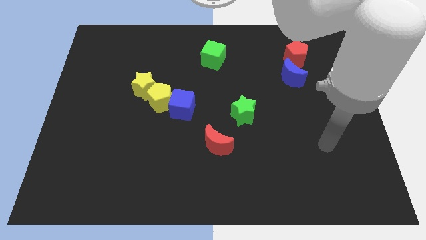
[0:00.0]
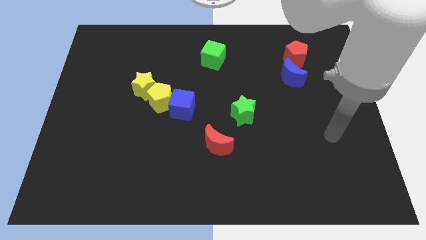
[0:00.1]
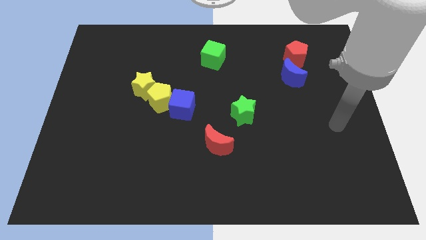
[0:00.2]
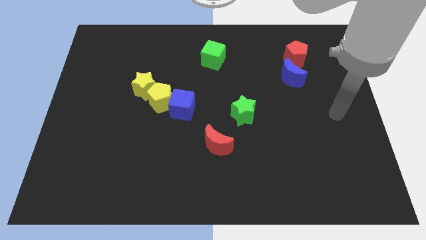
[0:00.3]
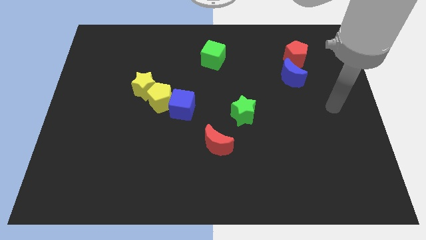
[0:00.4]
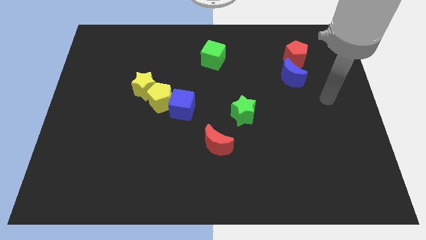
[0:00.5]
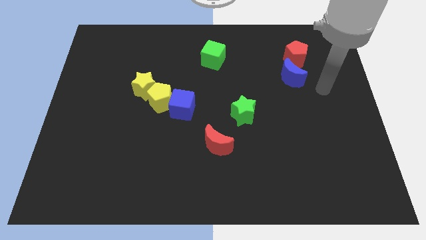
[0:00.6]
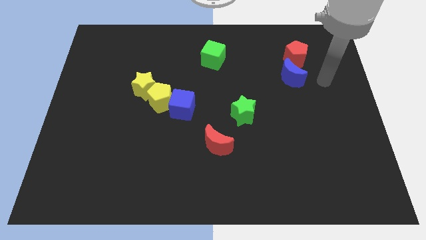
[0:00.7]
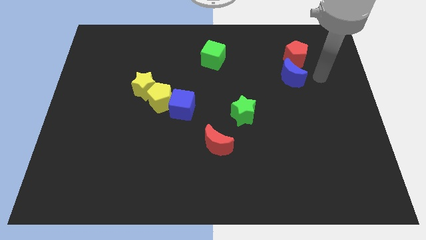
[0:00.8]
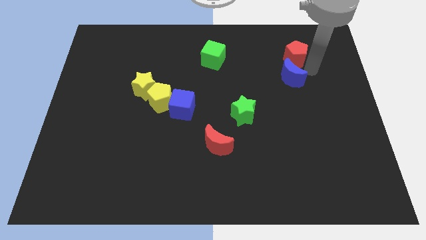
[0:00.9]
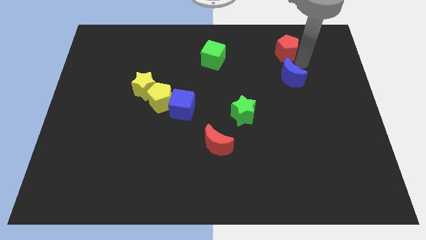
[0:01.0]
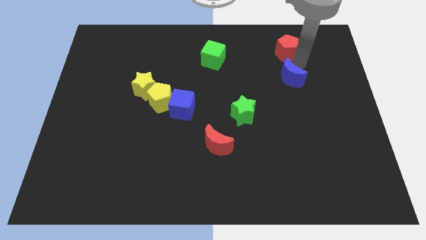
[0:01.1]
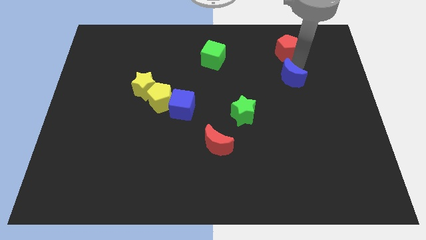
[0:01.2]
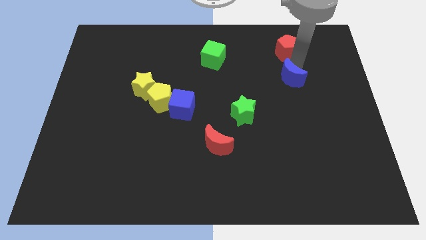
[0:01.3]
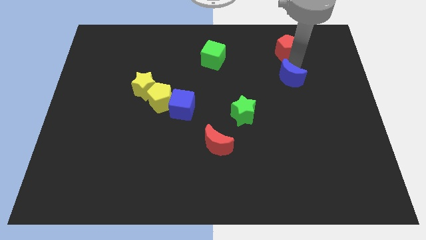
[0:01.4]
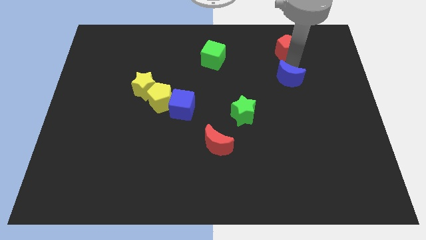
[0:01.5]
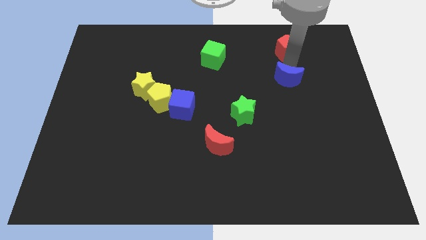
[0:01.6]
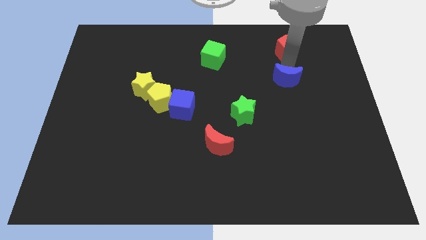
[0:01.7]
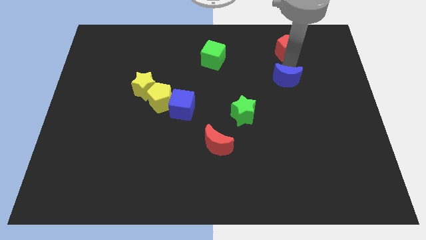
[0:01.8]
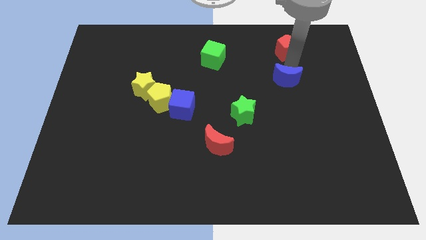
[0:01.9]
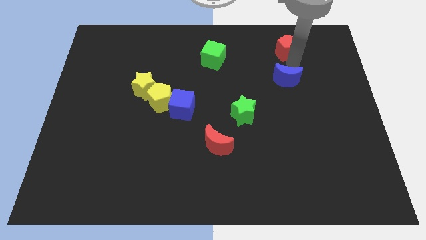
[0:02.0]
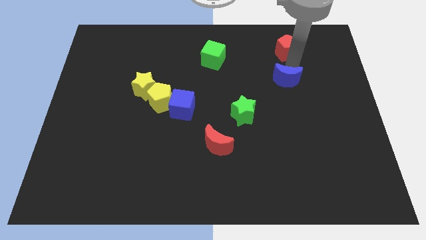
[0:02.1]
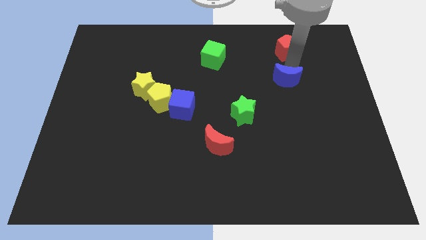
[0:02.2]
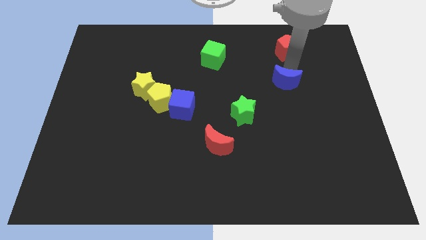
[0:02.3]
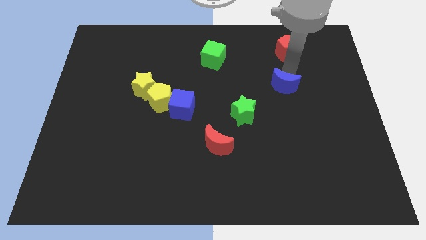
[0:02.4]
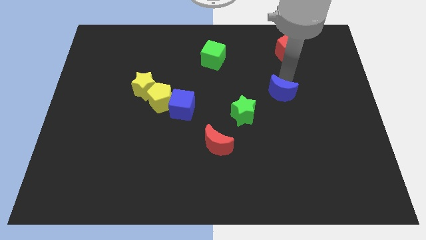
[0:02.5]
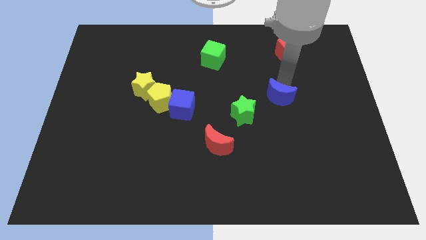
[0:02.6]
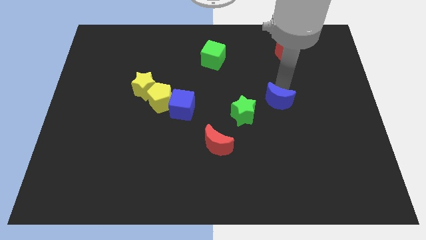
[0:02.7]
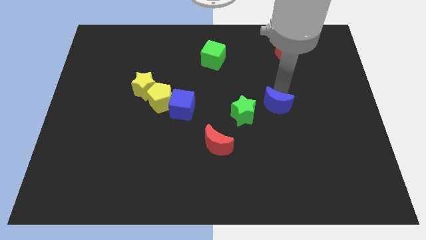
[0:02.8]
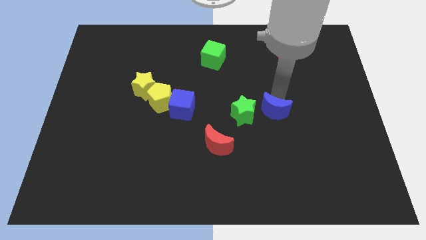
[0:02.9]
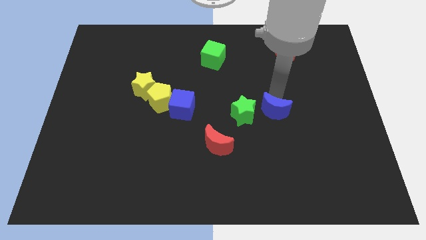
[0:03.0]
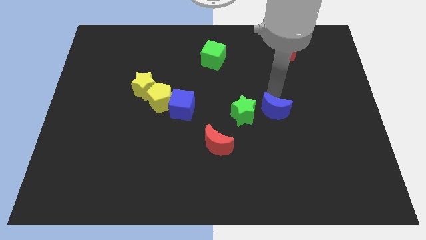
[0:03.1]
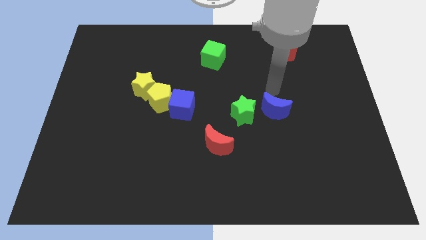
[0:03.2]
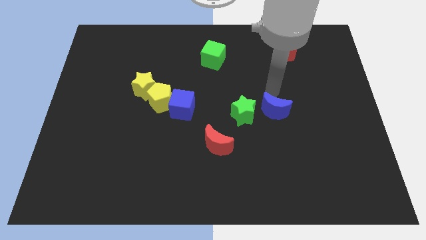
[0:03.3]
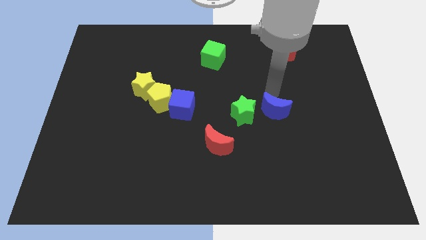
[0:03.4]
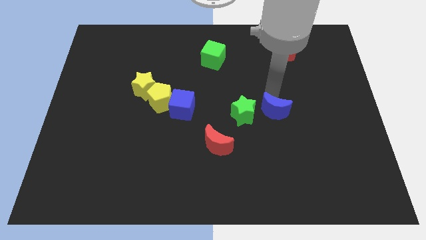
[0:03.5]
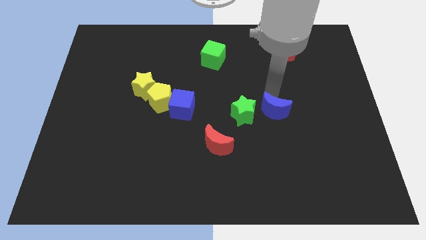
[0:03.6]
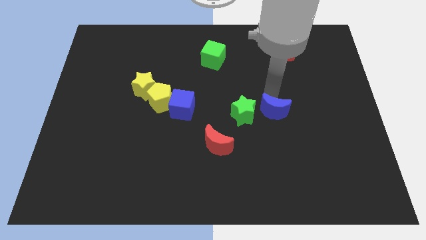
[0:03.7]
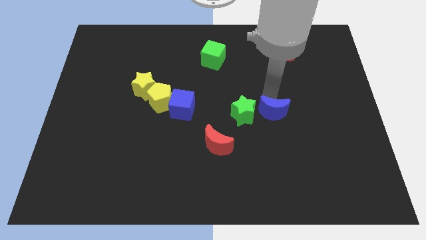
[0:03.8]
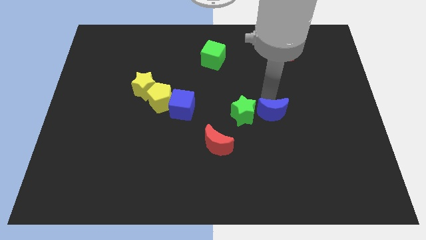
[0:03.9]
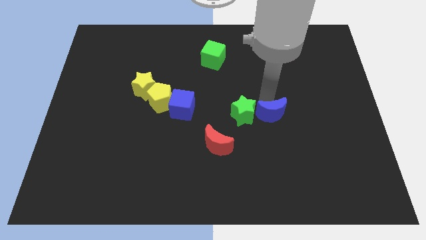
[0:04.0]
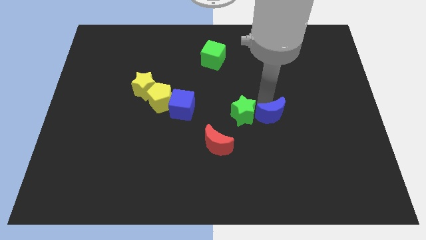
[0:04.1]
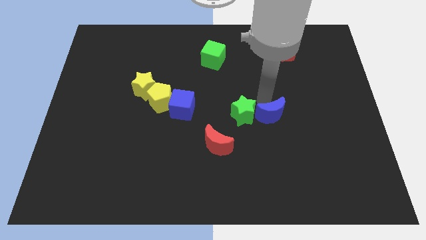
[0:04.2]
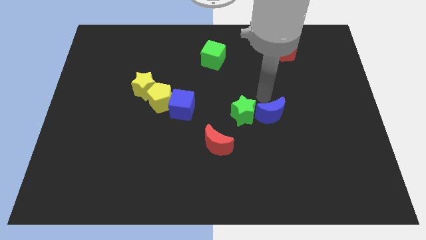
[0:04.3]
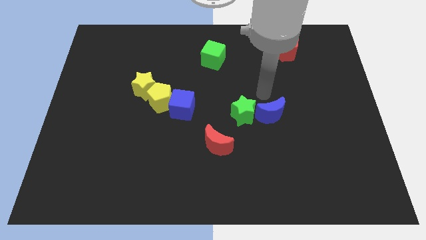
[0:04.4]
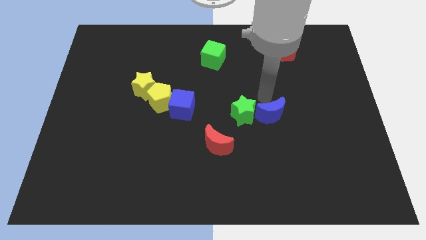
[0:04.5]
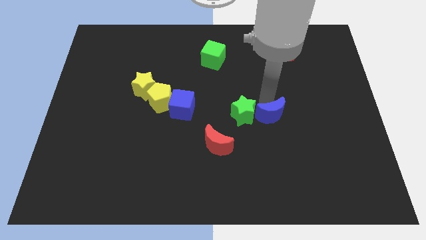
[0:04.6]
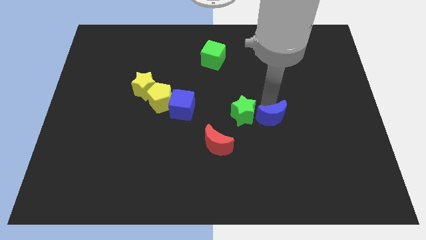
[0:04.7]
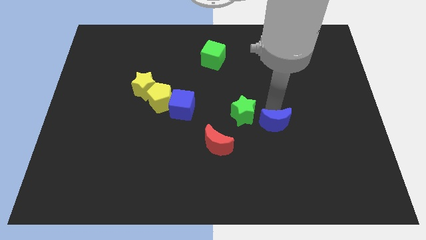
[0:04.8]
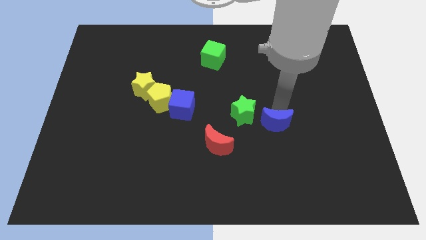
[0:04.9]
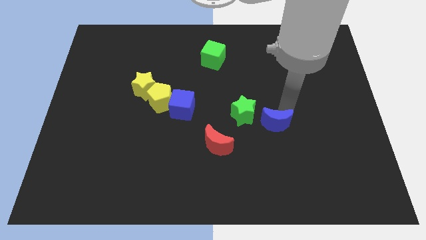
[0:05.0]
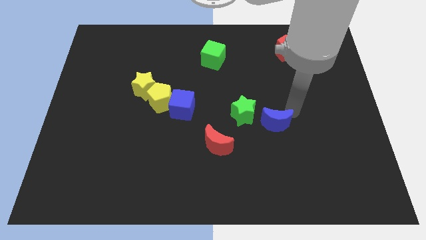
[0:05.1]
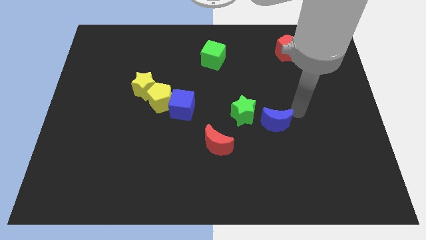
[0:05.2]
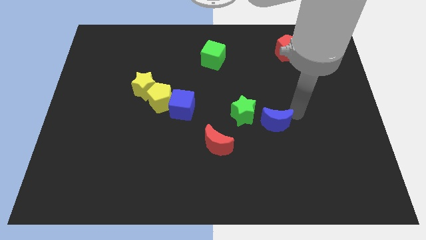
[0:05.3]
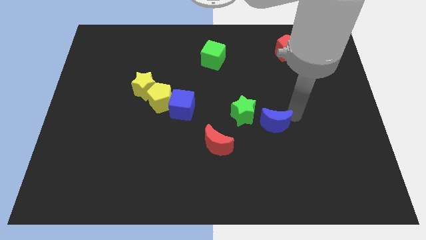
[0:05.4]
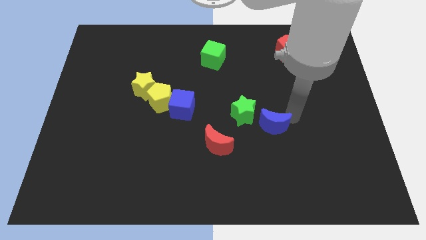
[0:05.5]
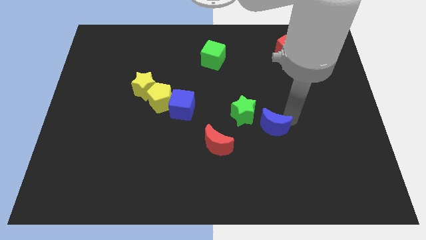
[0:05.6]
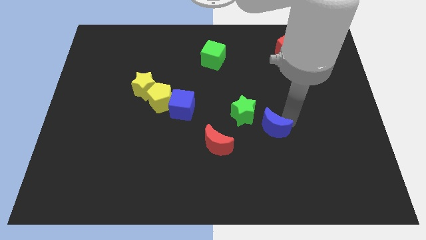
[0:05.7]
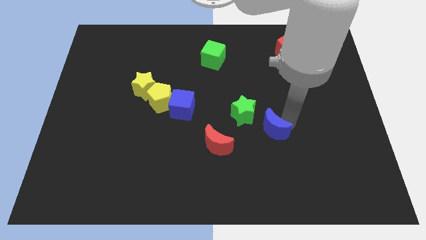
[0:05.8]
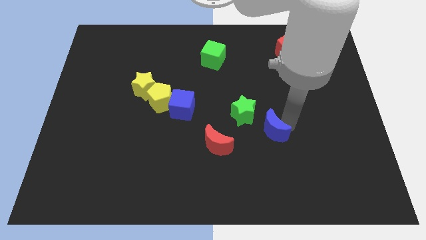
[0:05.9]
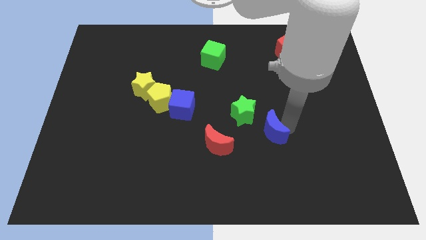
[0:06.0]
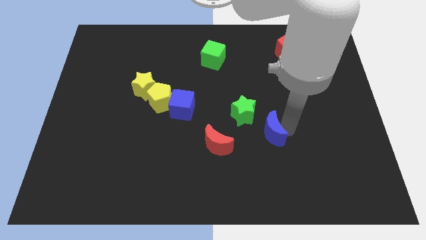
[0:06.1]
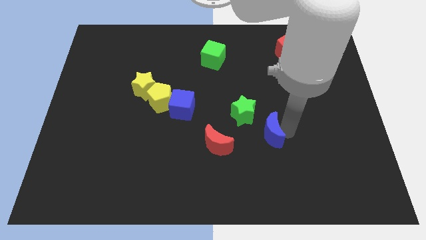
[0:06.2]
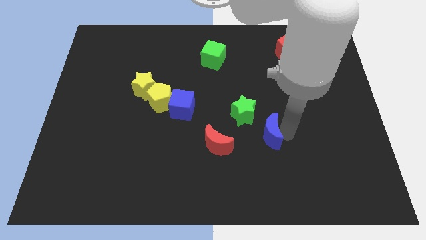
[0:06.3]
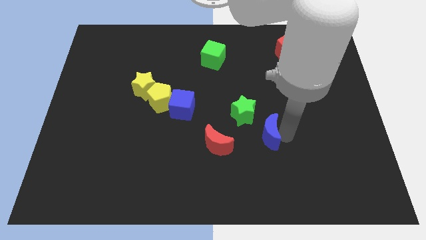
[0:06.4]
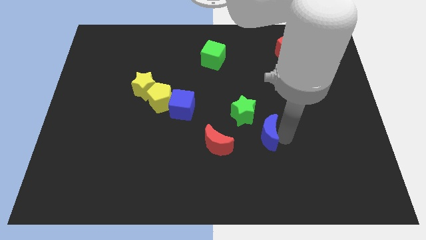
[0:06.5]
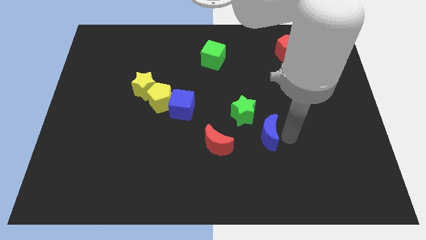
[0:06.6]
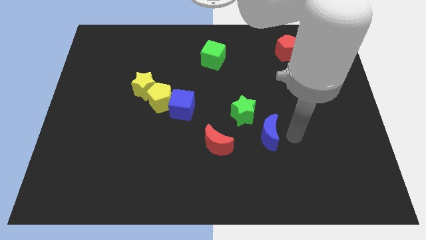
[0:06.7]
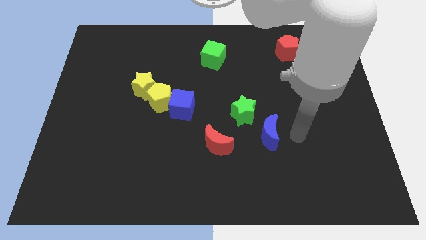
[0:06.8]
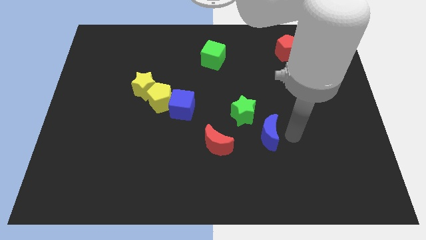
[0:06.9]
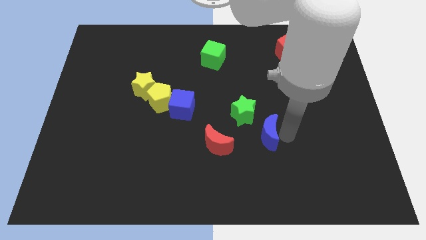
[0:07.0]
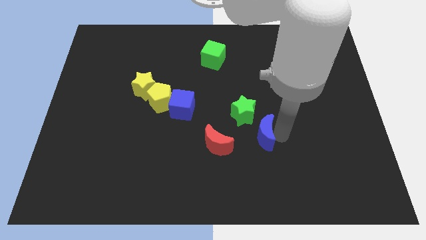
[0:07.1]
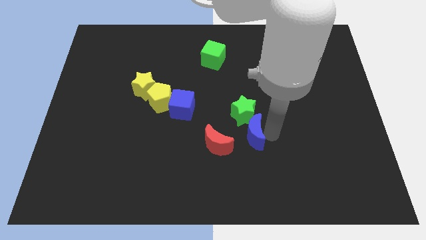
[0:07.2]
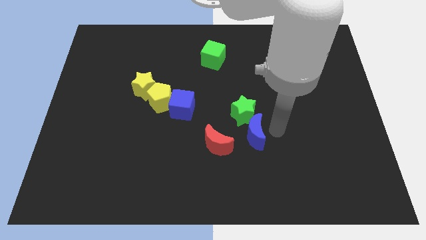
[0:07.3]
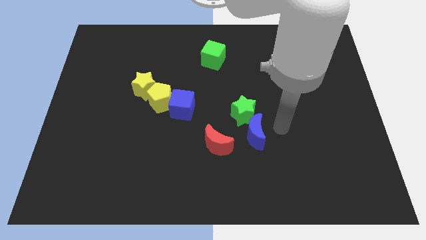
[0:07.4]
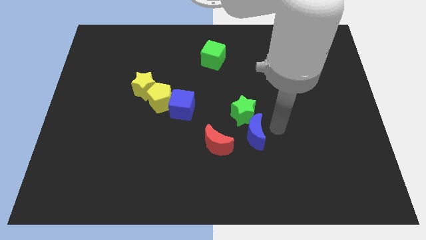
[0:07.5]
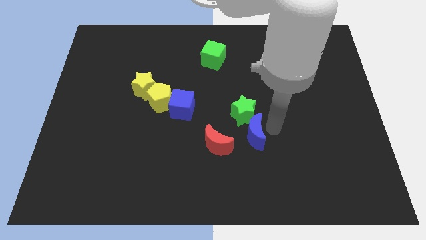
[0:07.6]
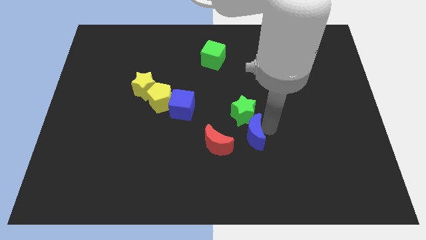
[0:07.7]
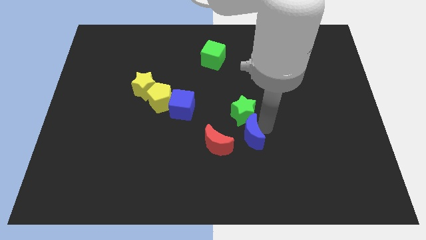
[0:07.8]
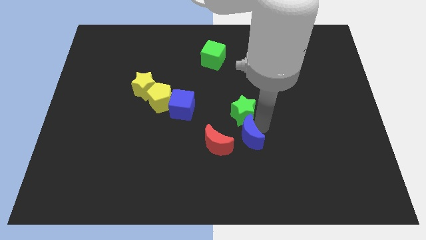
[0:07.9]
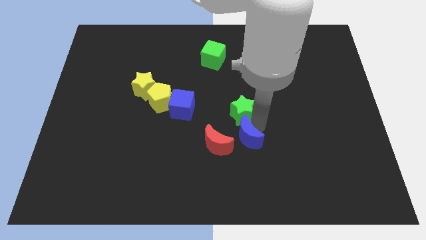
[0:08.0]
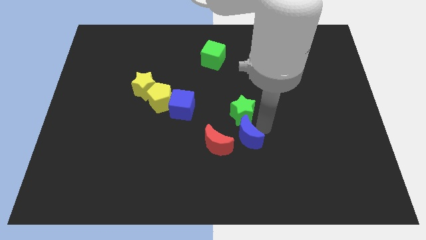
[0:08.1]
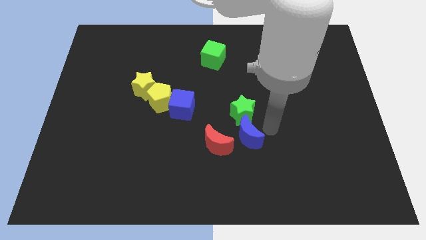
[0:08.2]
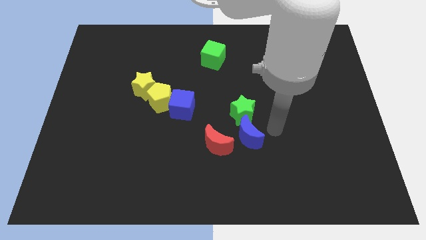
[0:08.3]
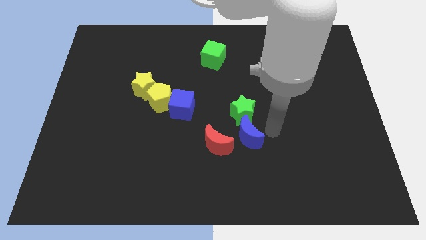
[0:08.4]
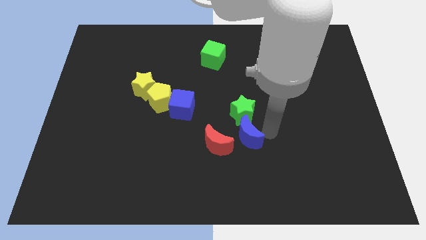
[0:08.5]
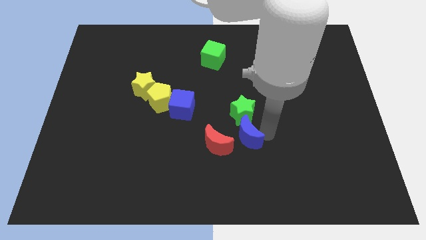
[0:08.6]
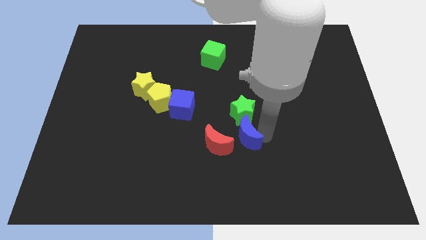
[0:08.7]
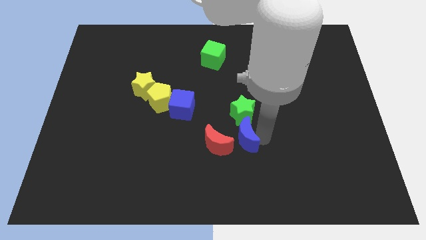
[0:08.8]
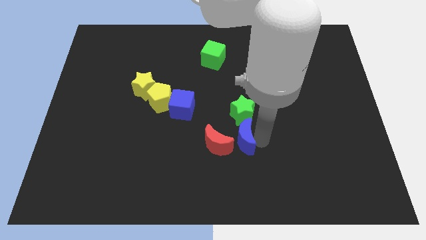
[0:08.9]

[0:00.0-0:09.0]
slide the blue moon close to the red moon
